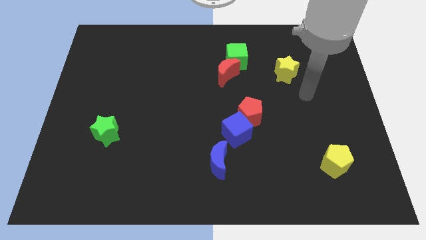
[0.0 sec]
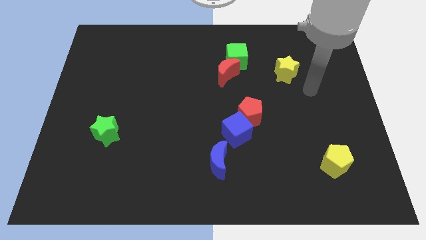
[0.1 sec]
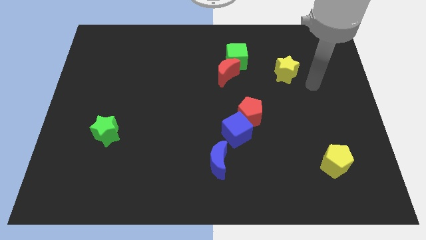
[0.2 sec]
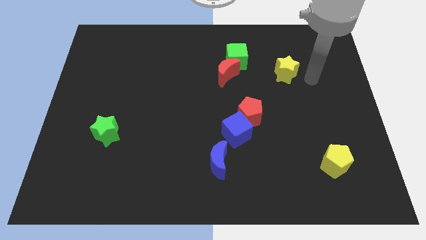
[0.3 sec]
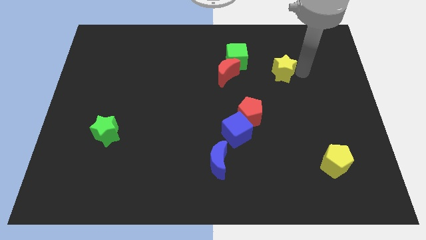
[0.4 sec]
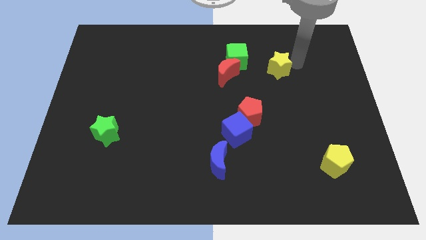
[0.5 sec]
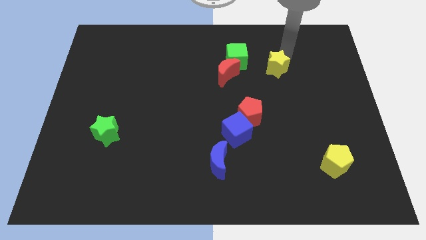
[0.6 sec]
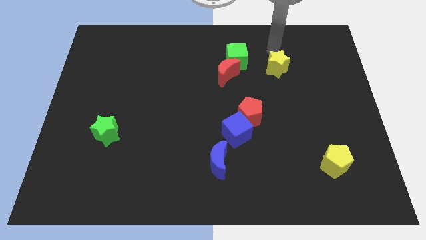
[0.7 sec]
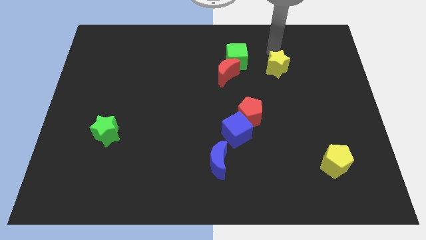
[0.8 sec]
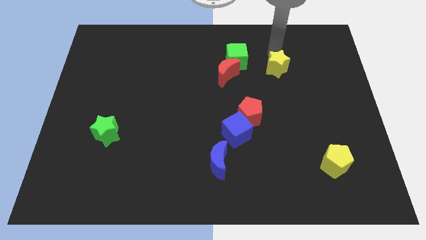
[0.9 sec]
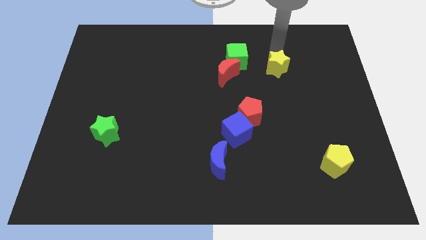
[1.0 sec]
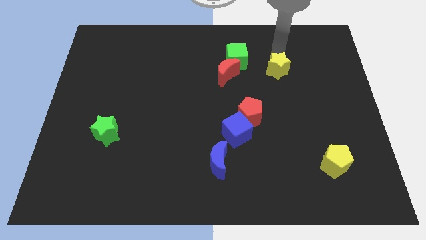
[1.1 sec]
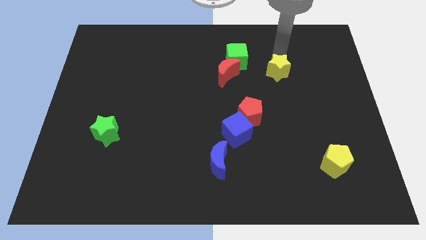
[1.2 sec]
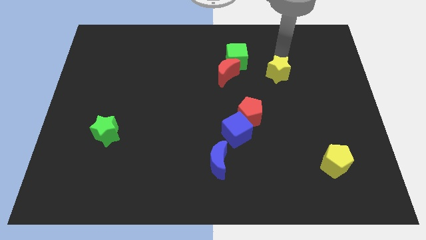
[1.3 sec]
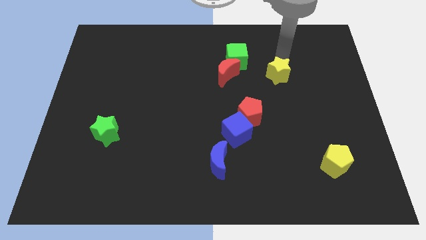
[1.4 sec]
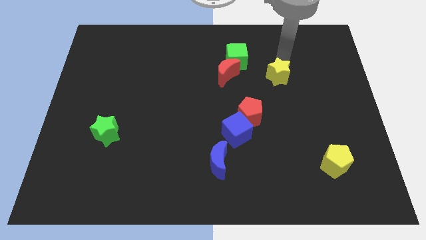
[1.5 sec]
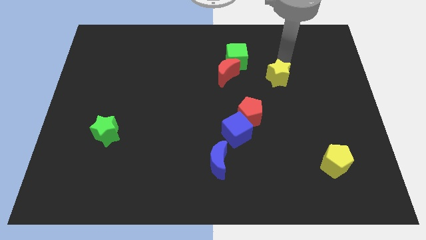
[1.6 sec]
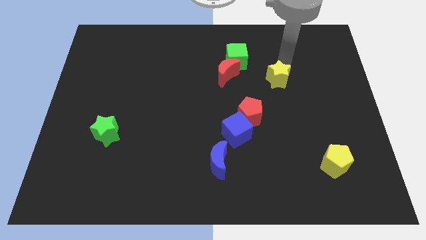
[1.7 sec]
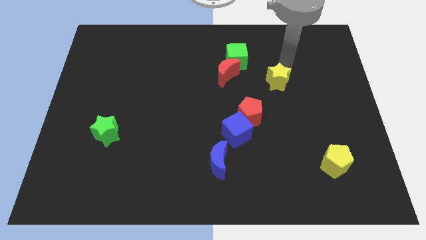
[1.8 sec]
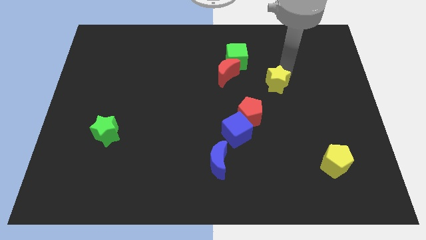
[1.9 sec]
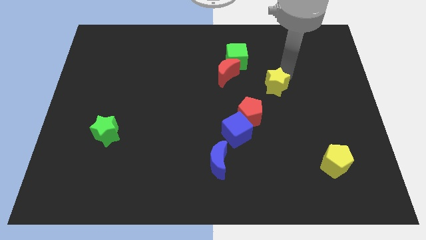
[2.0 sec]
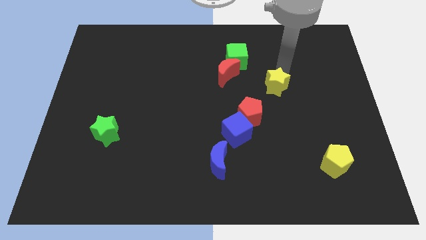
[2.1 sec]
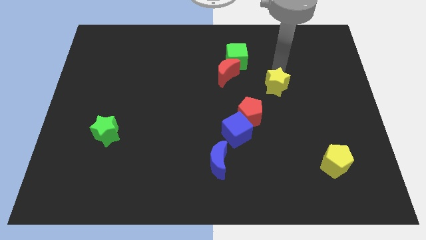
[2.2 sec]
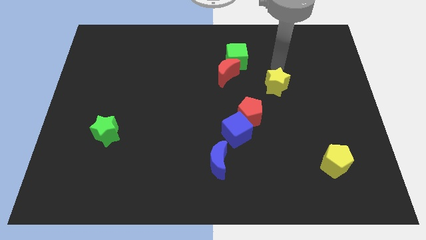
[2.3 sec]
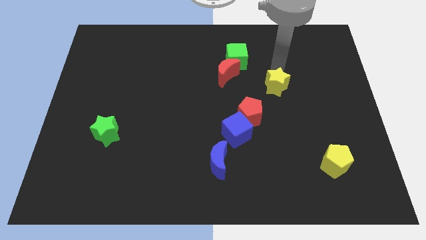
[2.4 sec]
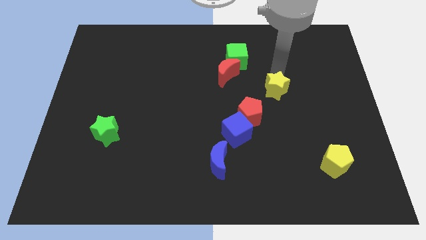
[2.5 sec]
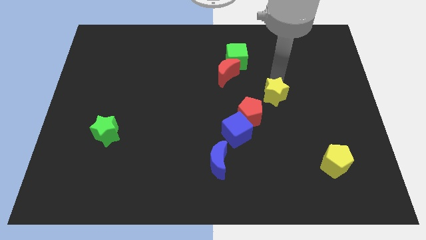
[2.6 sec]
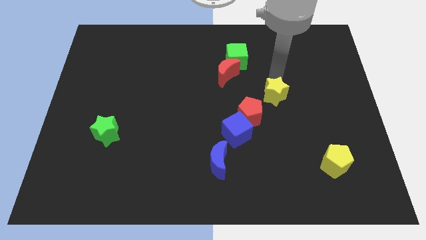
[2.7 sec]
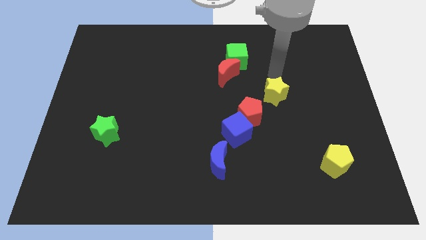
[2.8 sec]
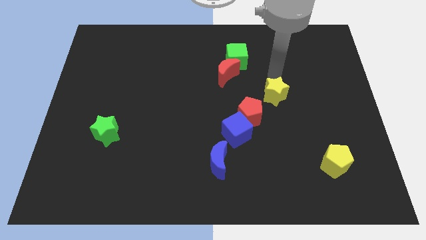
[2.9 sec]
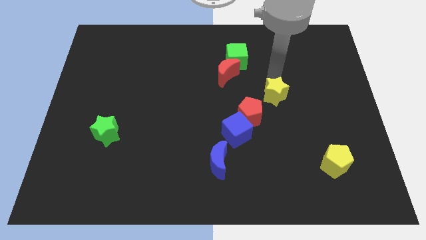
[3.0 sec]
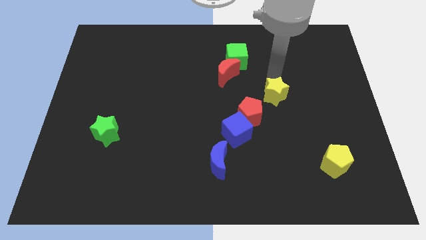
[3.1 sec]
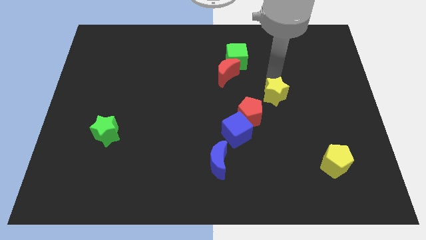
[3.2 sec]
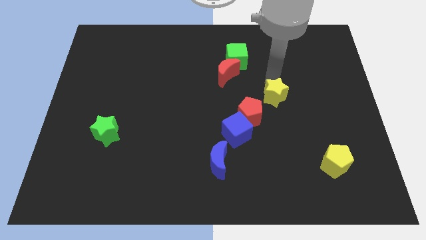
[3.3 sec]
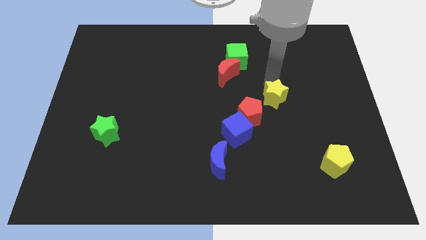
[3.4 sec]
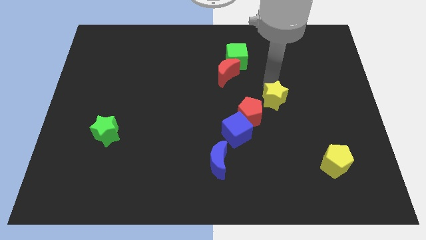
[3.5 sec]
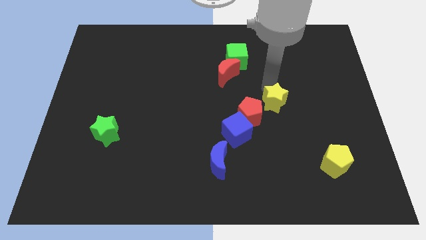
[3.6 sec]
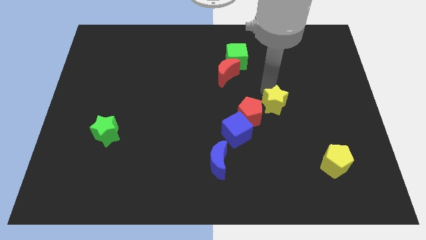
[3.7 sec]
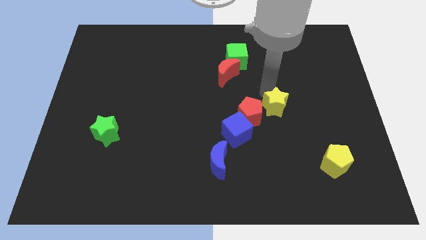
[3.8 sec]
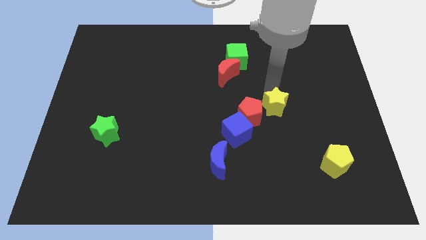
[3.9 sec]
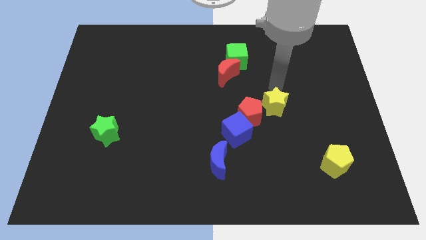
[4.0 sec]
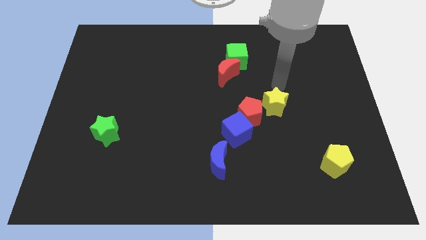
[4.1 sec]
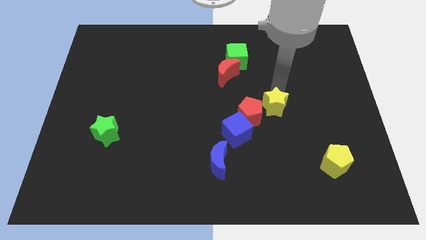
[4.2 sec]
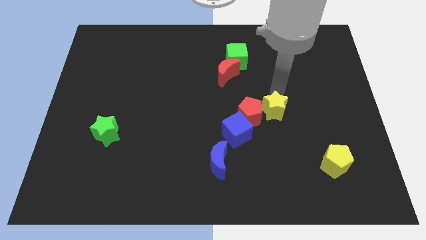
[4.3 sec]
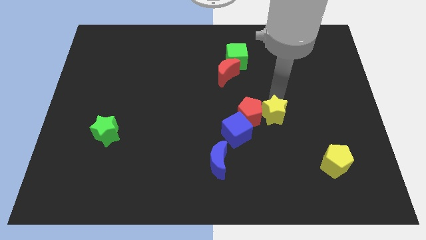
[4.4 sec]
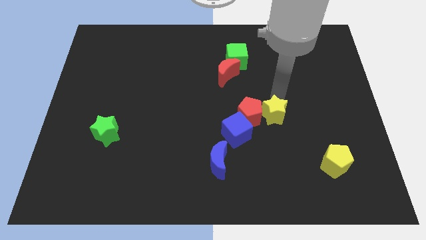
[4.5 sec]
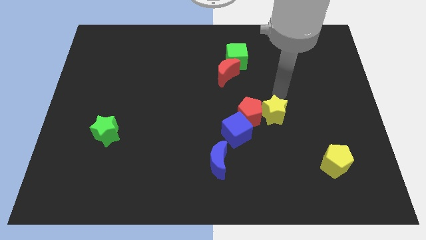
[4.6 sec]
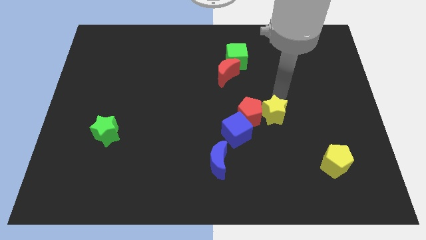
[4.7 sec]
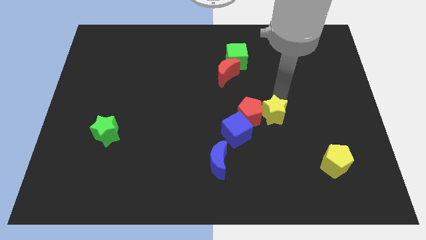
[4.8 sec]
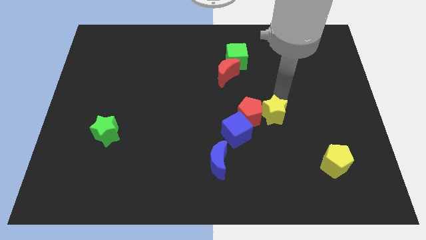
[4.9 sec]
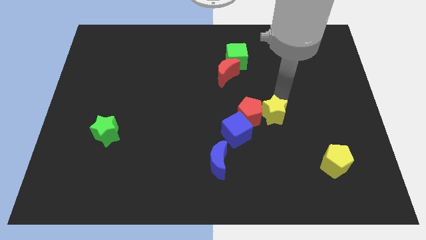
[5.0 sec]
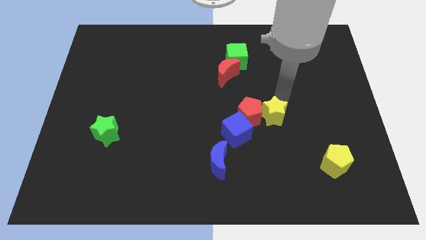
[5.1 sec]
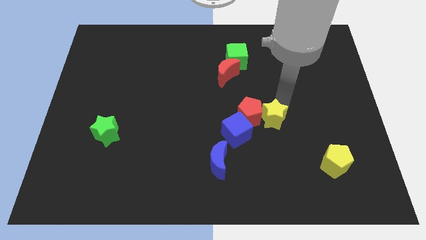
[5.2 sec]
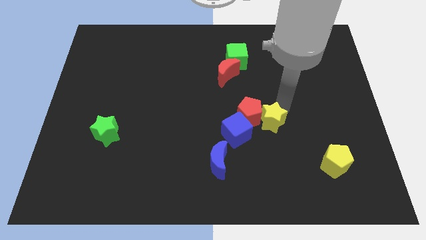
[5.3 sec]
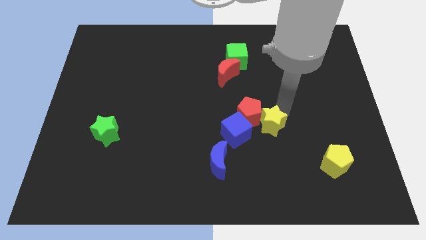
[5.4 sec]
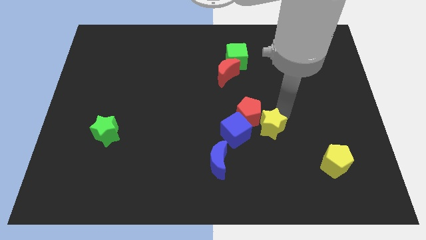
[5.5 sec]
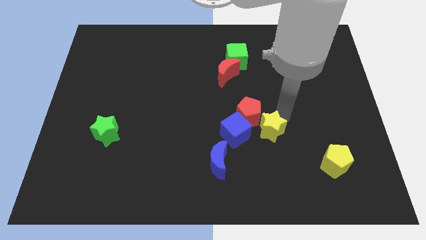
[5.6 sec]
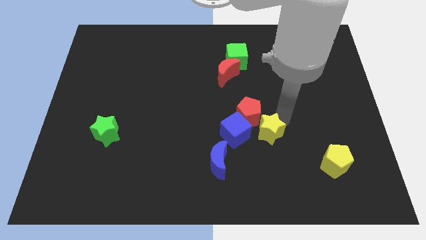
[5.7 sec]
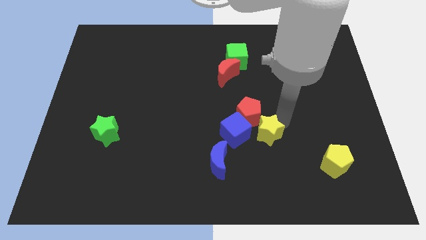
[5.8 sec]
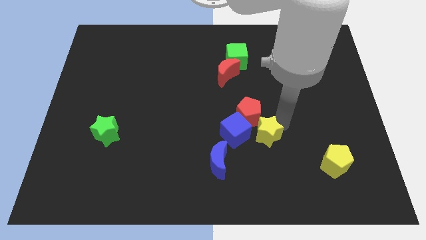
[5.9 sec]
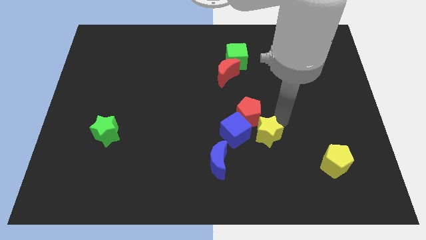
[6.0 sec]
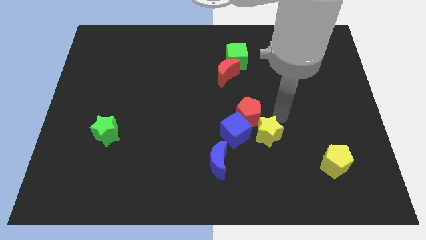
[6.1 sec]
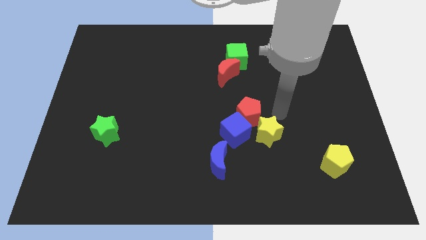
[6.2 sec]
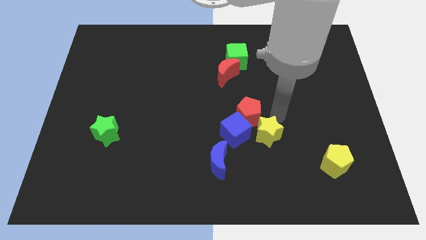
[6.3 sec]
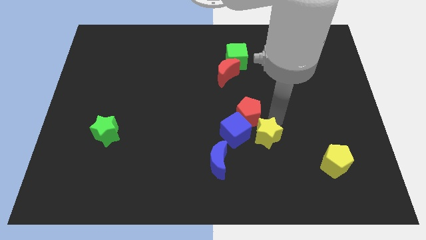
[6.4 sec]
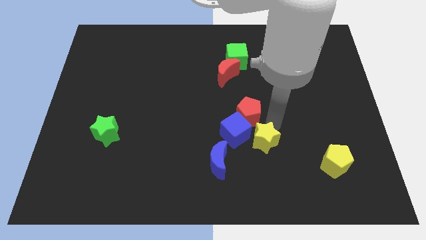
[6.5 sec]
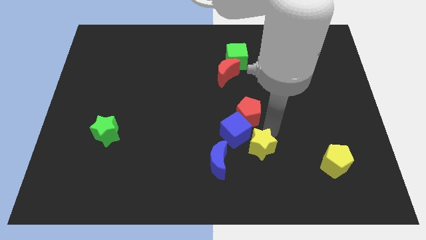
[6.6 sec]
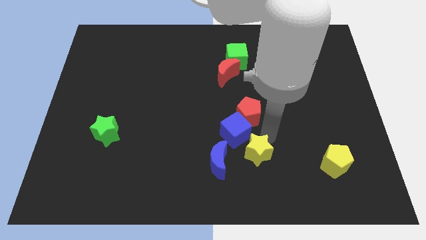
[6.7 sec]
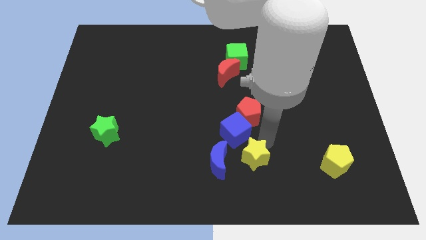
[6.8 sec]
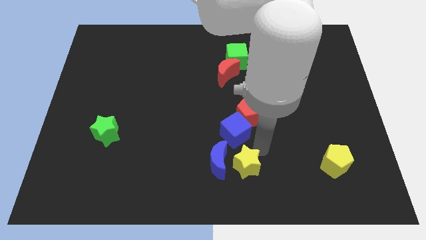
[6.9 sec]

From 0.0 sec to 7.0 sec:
slide the yellow star to the bottom side
